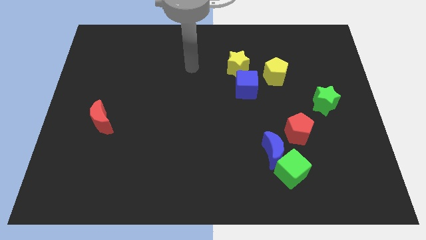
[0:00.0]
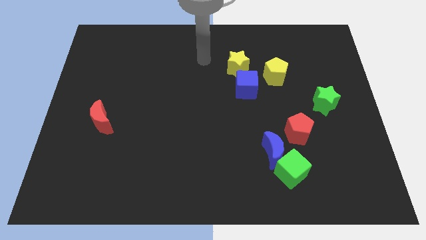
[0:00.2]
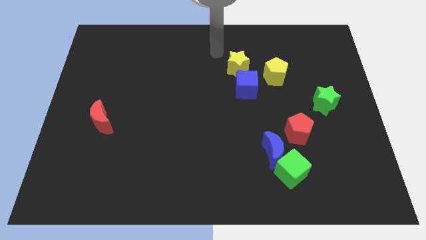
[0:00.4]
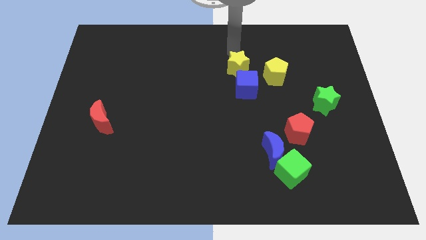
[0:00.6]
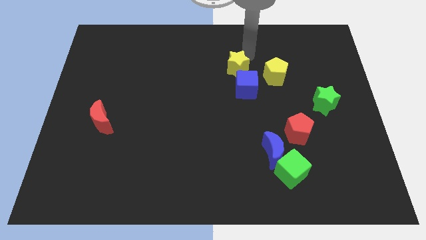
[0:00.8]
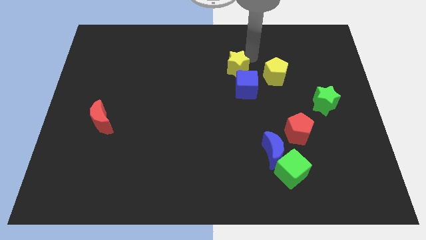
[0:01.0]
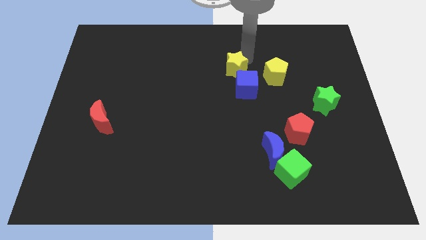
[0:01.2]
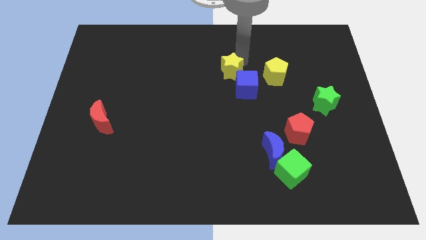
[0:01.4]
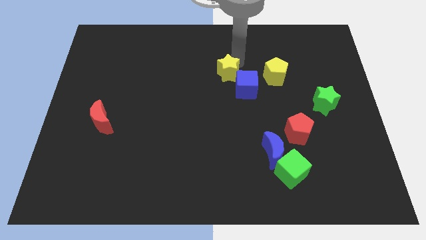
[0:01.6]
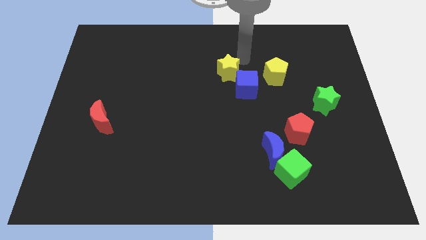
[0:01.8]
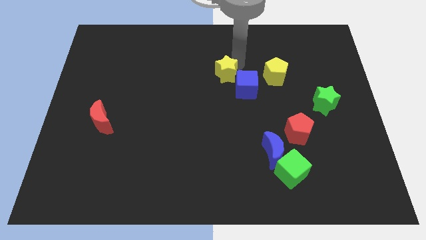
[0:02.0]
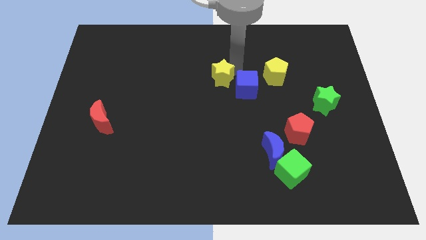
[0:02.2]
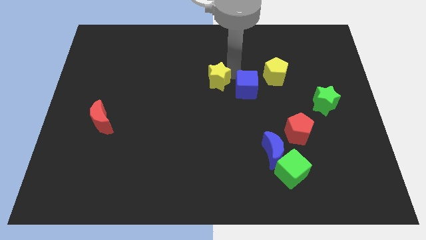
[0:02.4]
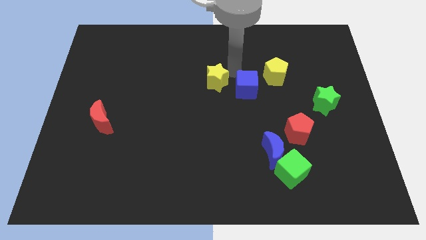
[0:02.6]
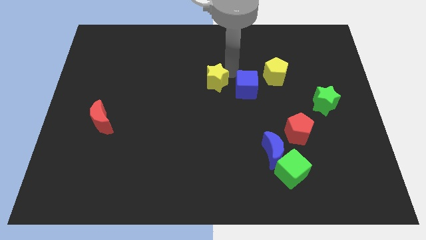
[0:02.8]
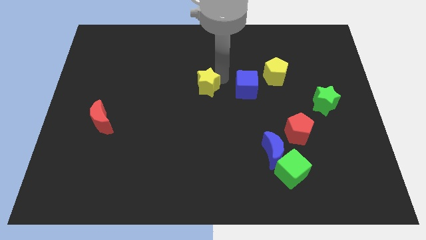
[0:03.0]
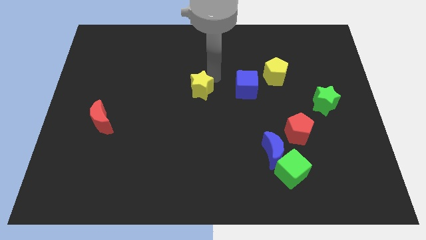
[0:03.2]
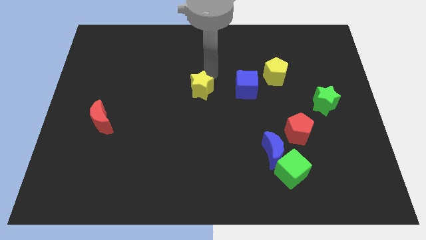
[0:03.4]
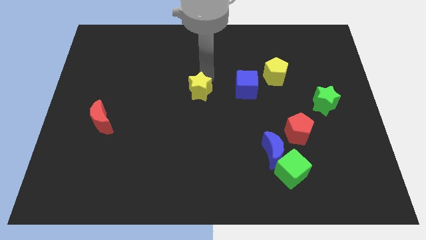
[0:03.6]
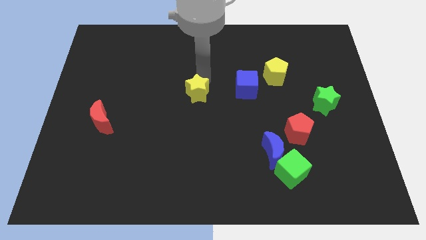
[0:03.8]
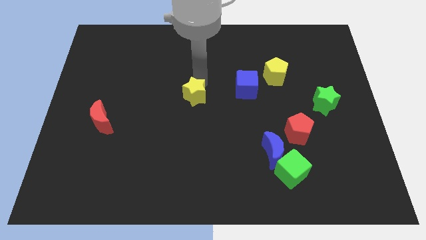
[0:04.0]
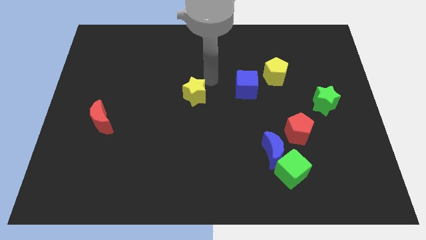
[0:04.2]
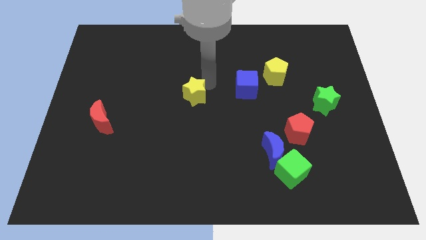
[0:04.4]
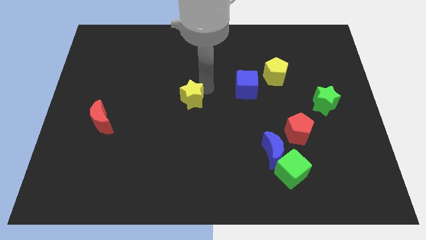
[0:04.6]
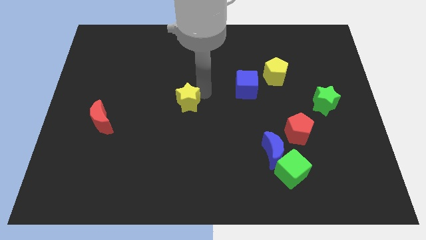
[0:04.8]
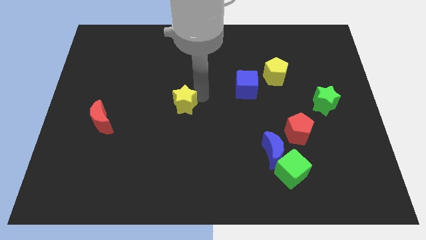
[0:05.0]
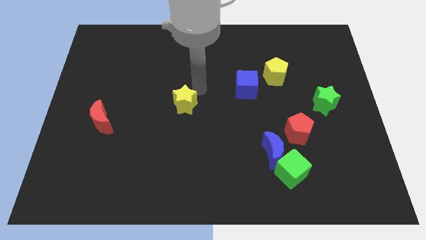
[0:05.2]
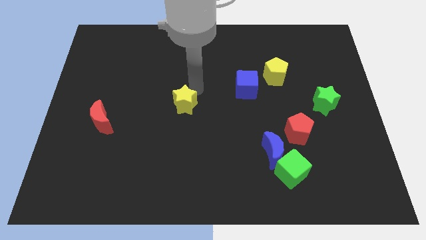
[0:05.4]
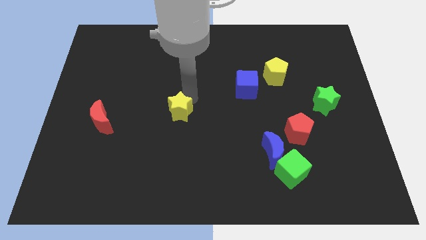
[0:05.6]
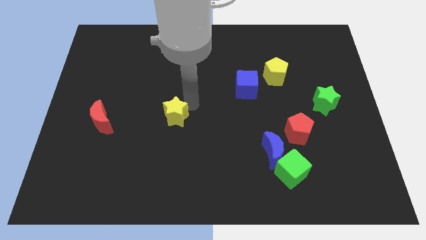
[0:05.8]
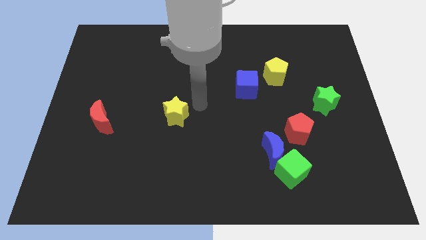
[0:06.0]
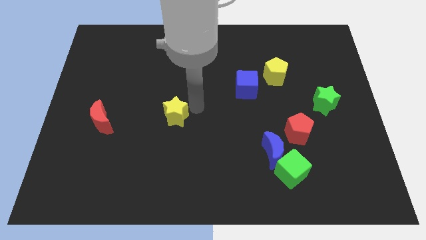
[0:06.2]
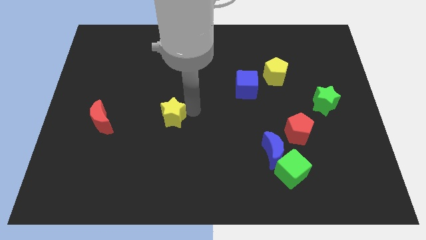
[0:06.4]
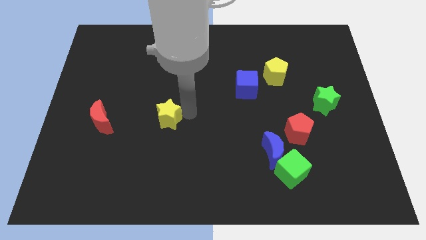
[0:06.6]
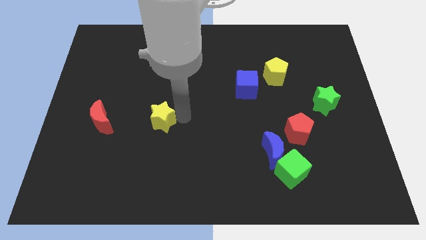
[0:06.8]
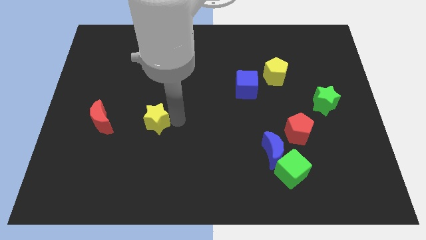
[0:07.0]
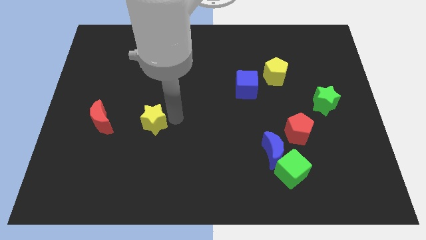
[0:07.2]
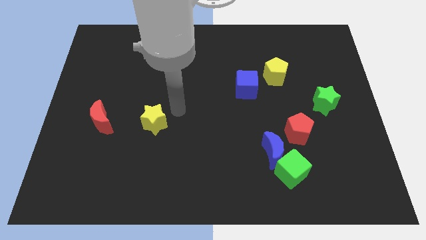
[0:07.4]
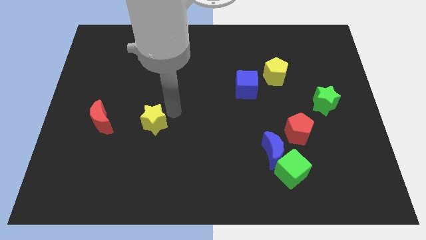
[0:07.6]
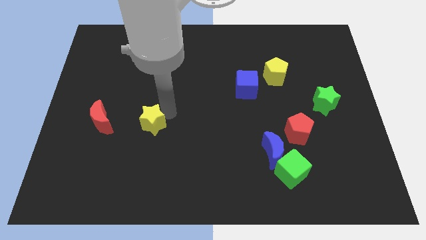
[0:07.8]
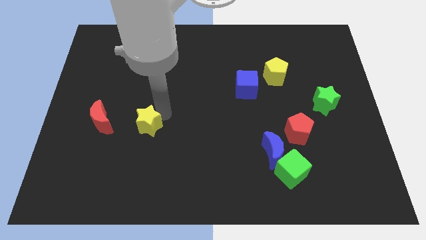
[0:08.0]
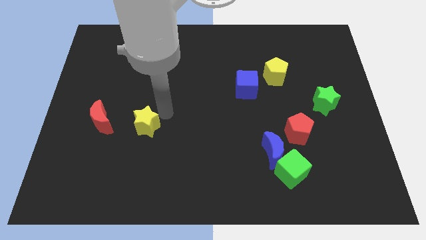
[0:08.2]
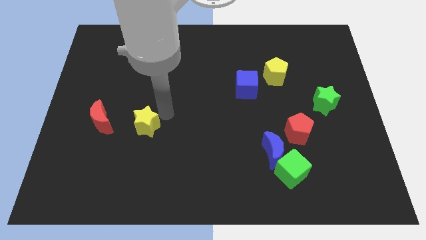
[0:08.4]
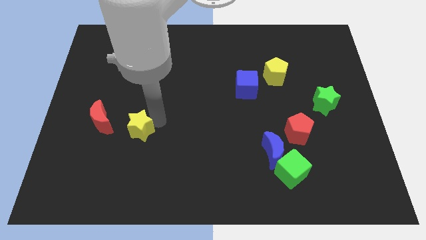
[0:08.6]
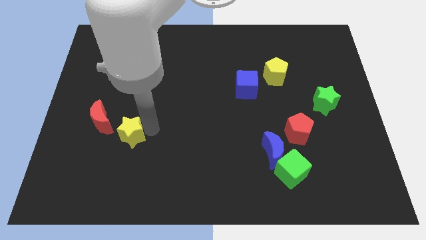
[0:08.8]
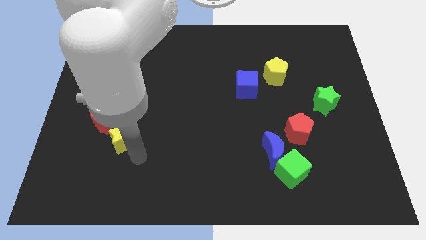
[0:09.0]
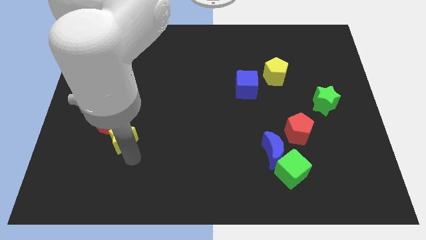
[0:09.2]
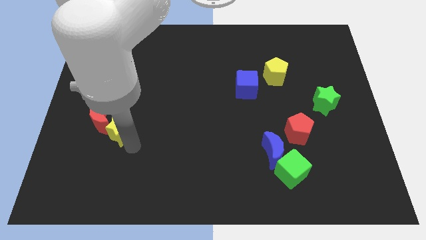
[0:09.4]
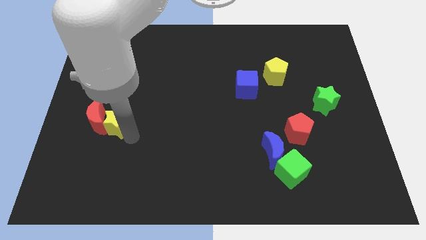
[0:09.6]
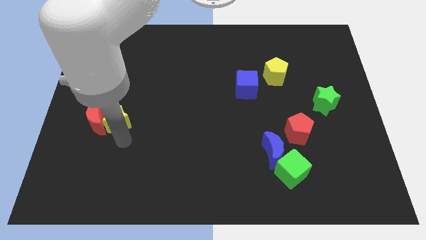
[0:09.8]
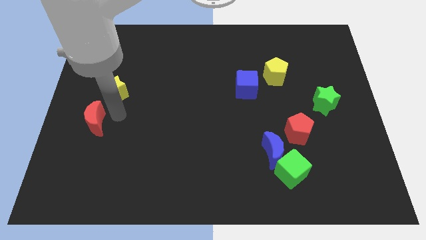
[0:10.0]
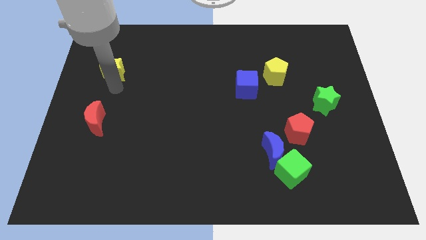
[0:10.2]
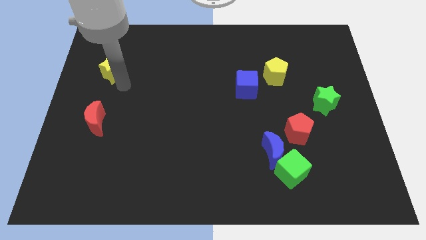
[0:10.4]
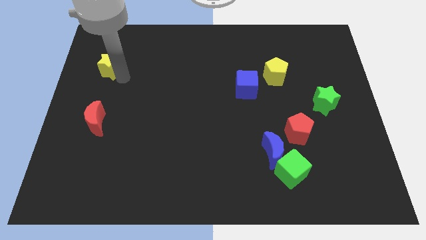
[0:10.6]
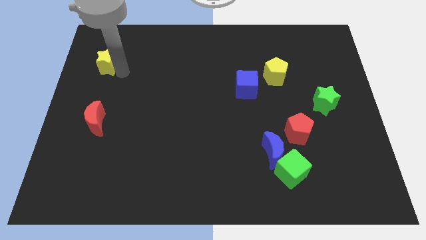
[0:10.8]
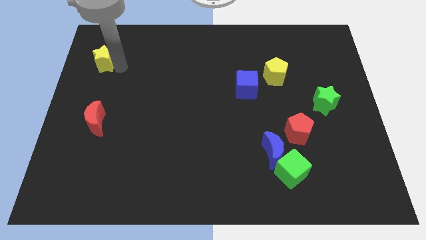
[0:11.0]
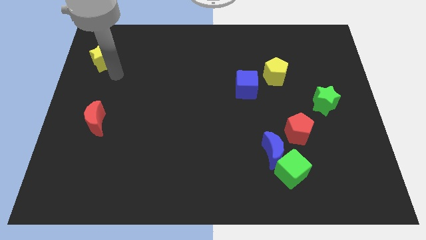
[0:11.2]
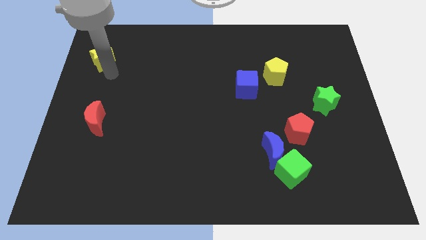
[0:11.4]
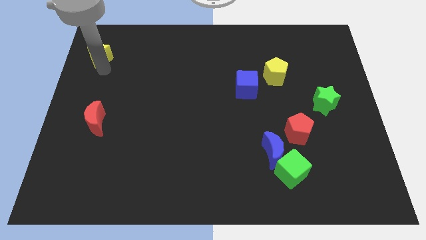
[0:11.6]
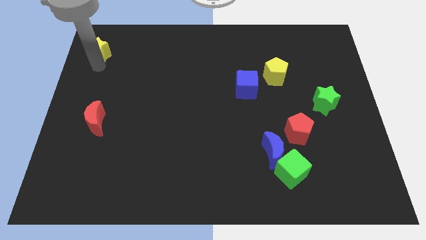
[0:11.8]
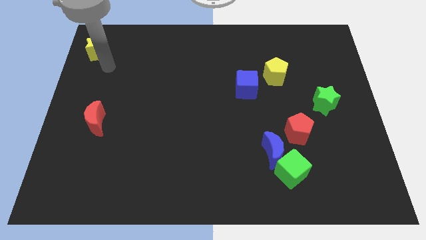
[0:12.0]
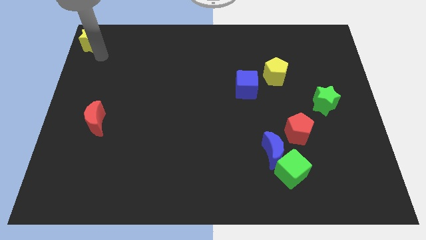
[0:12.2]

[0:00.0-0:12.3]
push the yellow star to the top left
